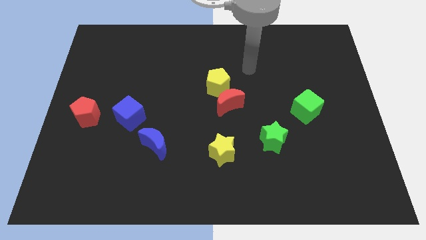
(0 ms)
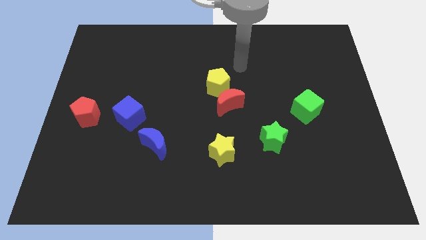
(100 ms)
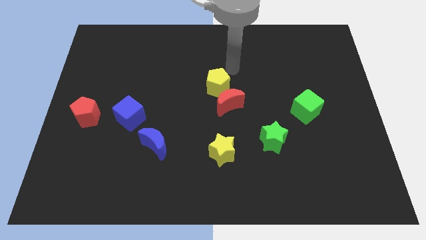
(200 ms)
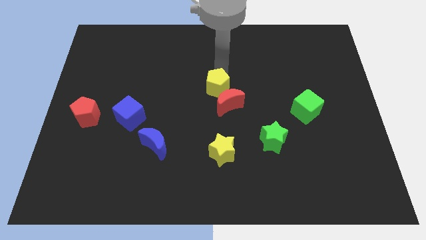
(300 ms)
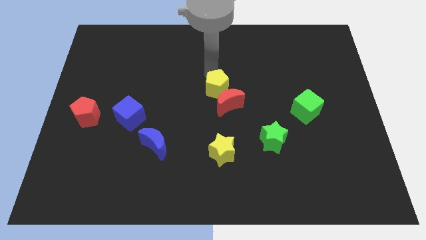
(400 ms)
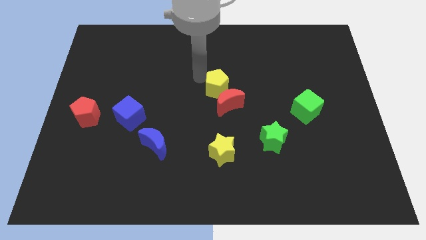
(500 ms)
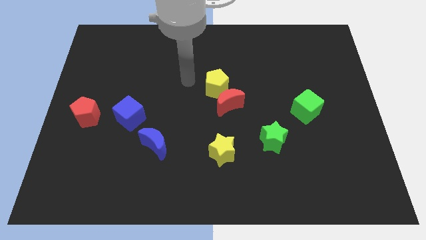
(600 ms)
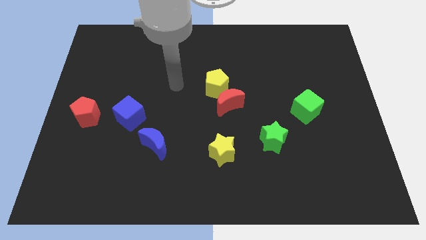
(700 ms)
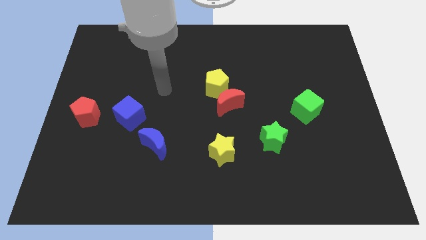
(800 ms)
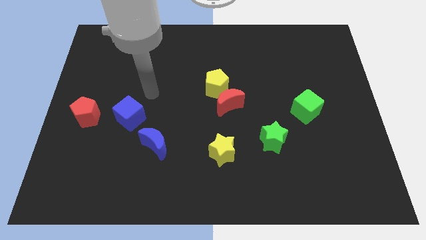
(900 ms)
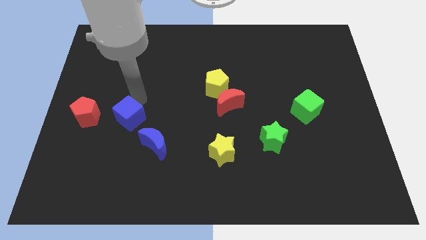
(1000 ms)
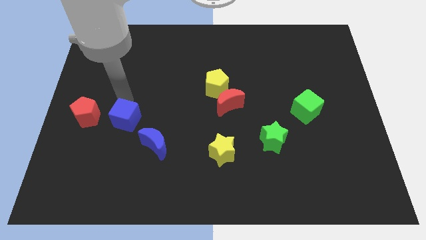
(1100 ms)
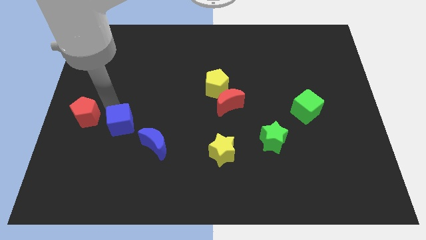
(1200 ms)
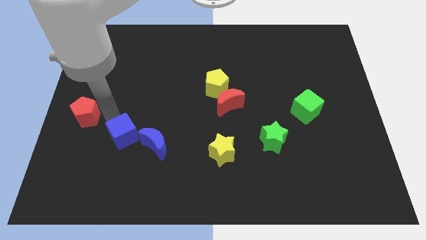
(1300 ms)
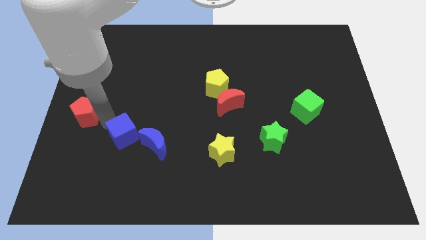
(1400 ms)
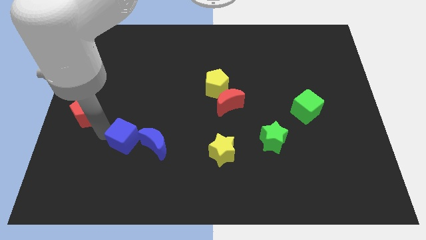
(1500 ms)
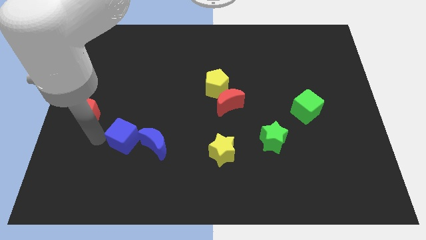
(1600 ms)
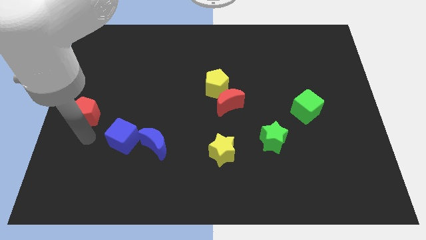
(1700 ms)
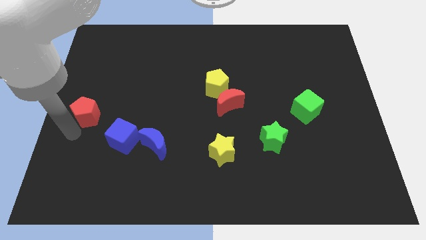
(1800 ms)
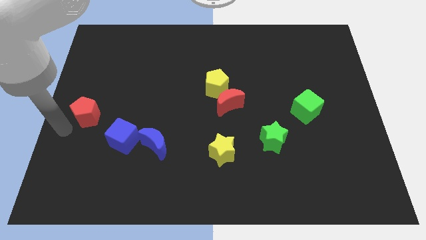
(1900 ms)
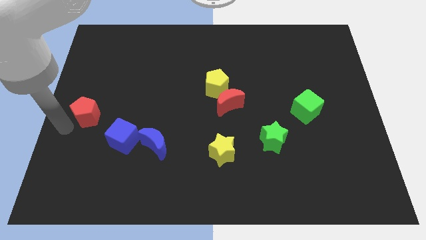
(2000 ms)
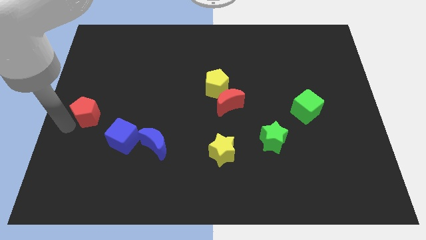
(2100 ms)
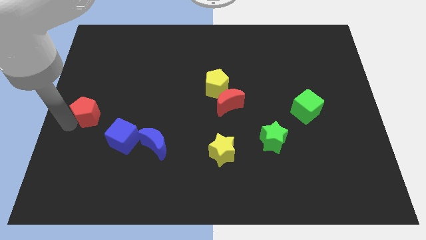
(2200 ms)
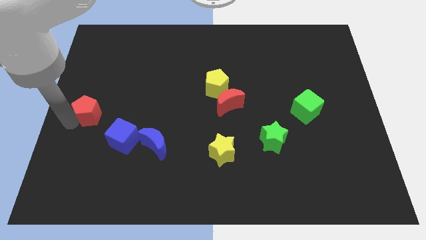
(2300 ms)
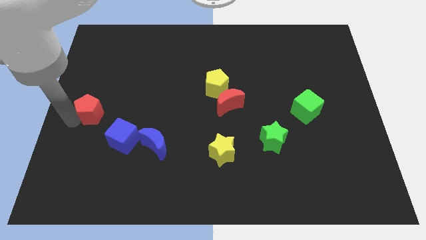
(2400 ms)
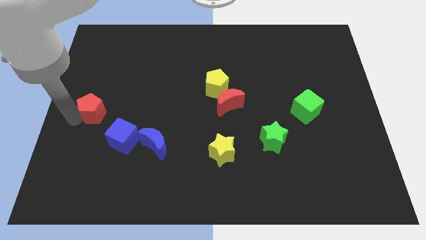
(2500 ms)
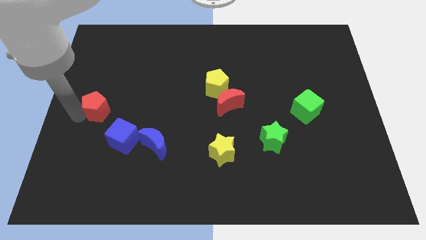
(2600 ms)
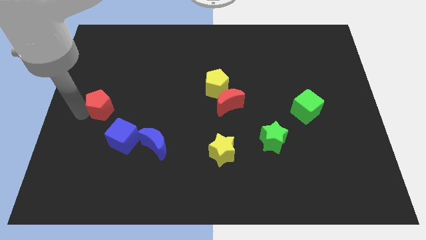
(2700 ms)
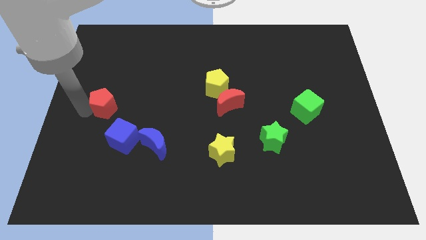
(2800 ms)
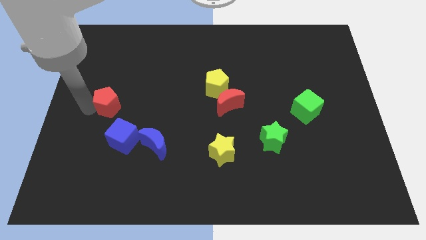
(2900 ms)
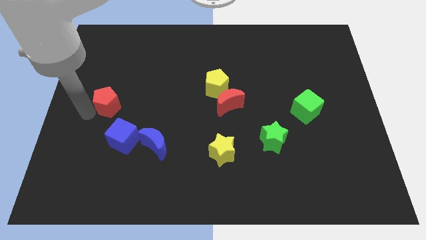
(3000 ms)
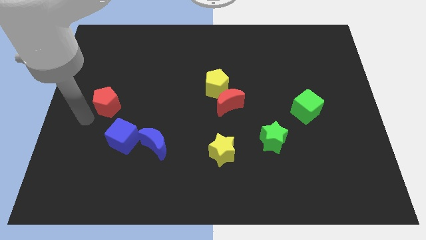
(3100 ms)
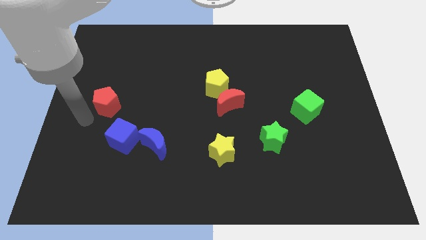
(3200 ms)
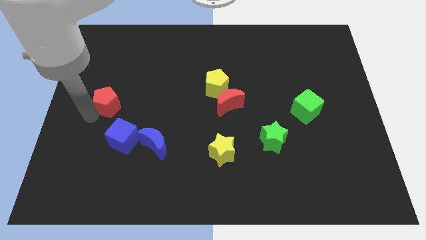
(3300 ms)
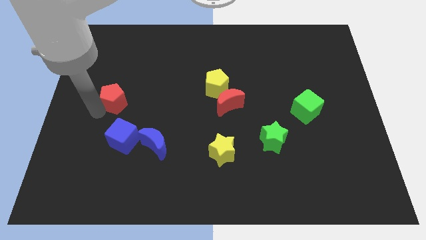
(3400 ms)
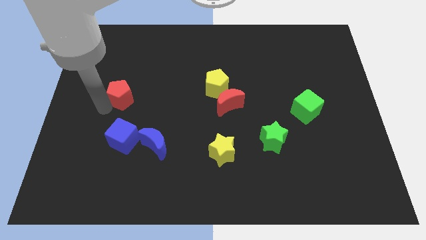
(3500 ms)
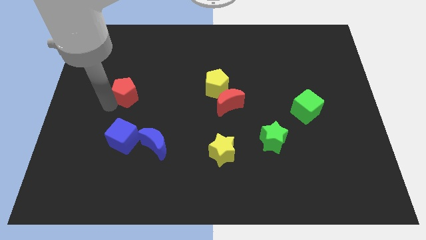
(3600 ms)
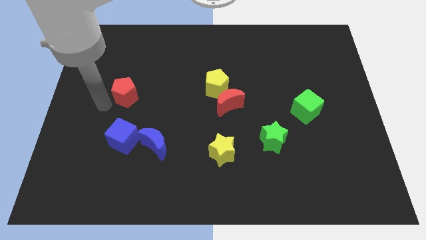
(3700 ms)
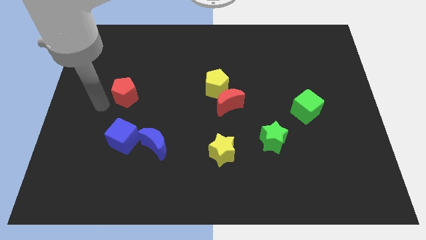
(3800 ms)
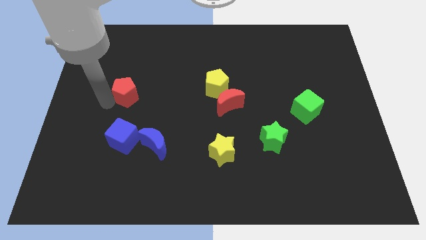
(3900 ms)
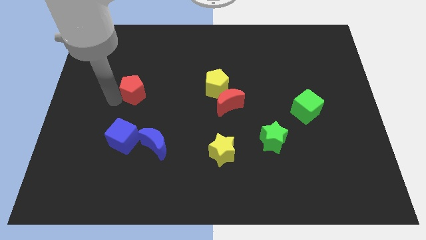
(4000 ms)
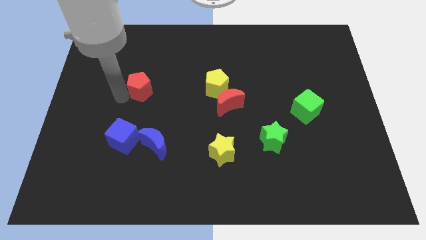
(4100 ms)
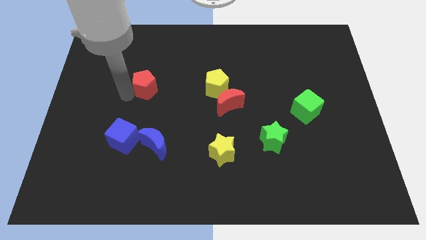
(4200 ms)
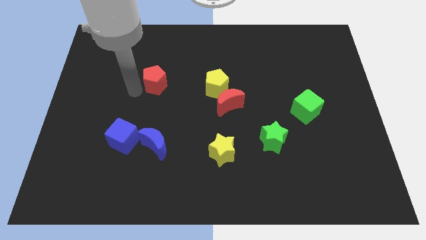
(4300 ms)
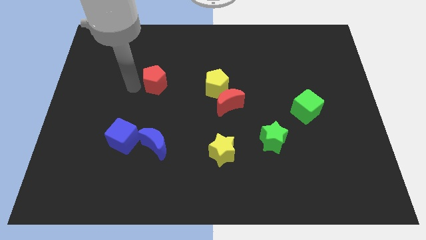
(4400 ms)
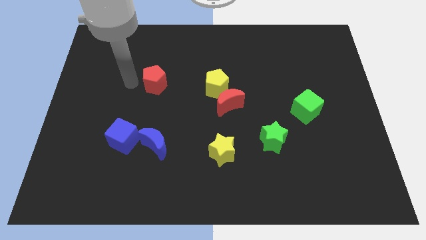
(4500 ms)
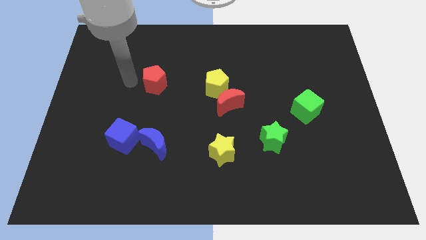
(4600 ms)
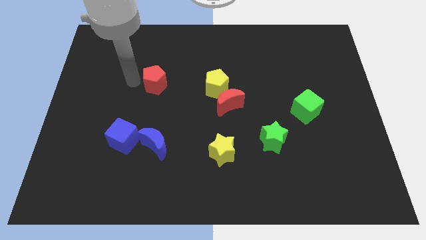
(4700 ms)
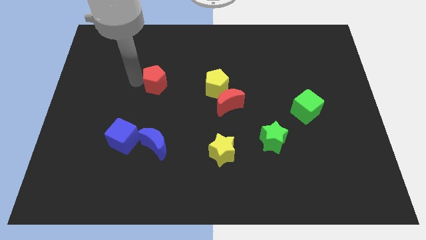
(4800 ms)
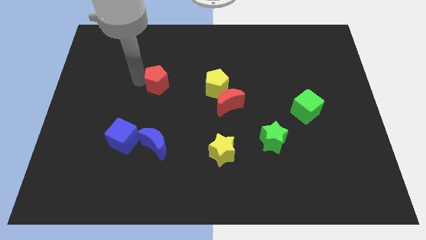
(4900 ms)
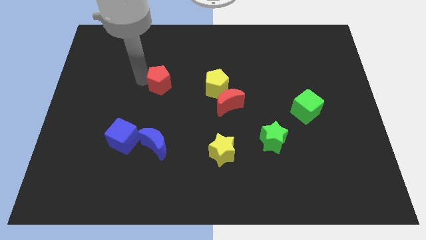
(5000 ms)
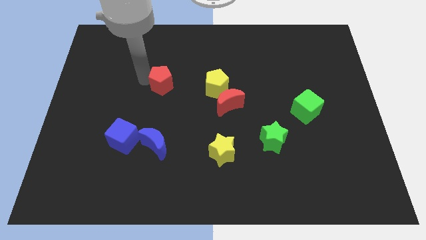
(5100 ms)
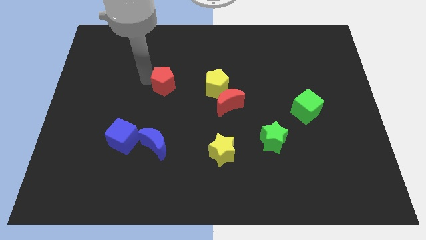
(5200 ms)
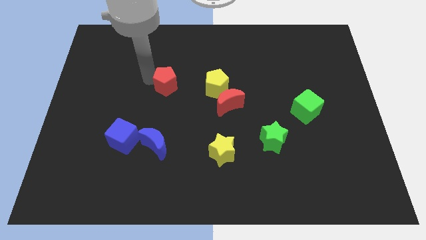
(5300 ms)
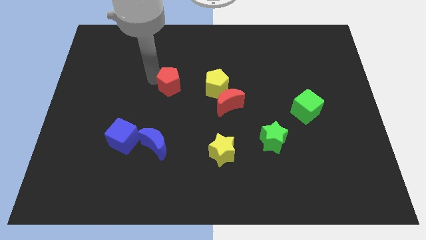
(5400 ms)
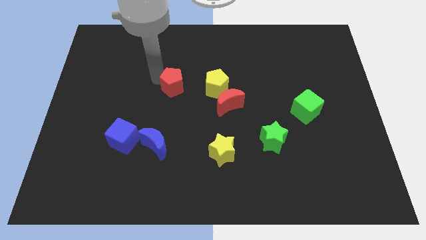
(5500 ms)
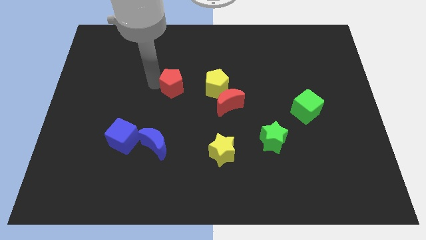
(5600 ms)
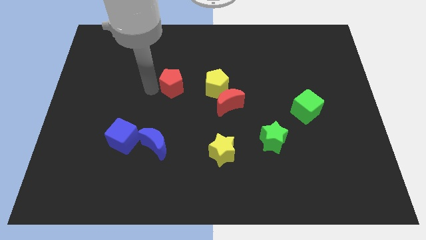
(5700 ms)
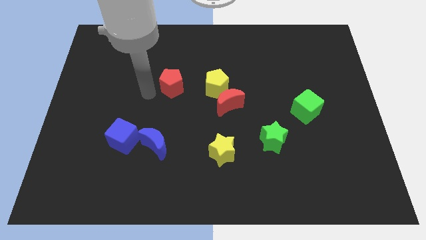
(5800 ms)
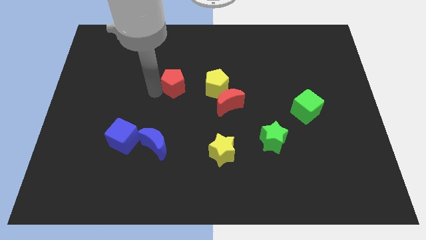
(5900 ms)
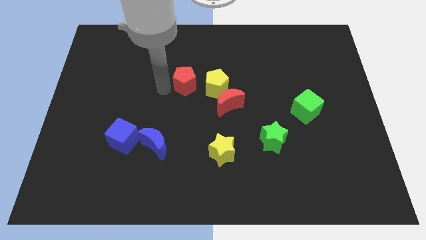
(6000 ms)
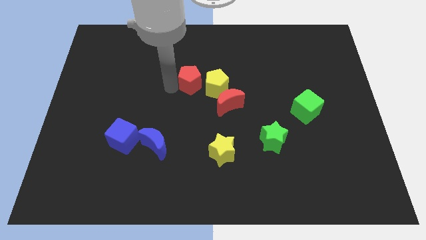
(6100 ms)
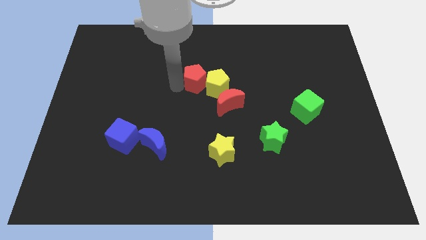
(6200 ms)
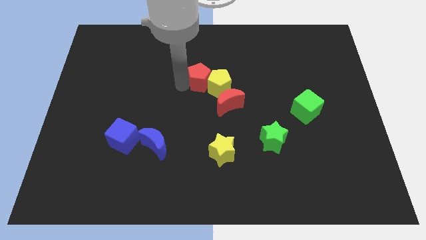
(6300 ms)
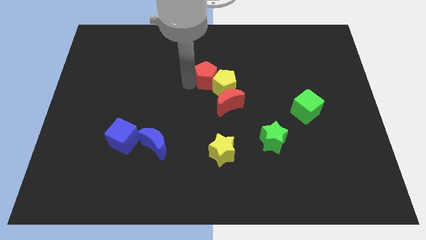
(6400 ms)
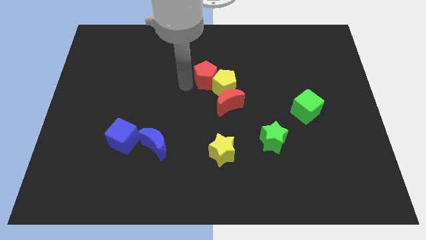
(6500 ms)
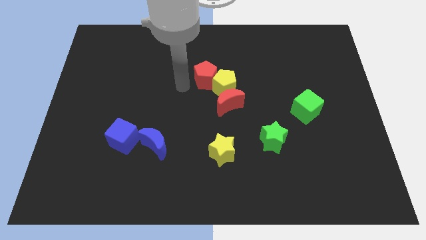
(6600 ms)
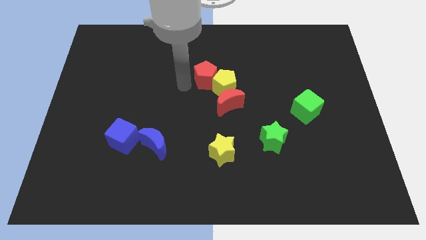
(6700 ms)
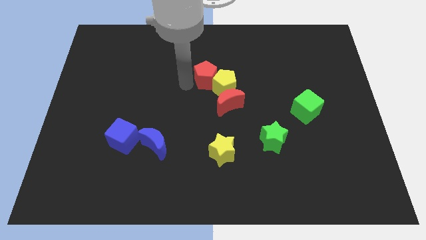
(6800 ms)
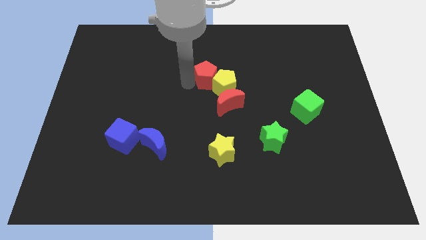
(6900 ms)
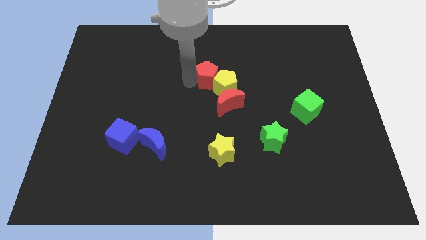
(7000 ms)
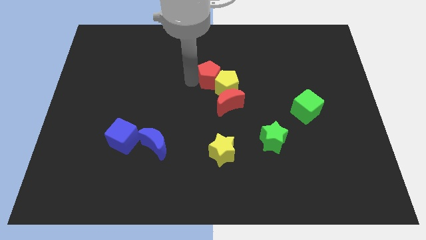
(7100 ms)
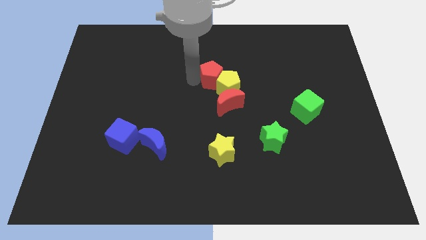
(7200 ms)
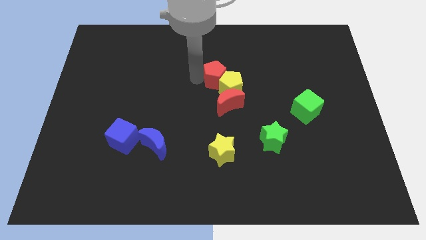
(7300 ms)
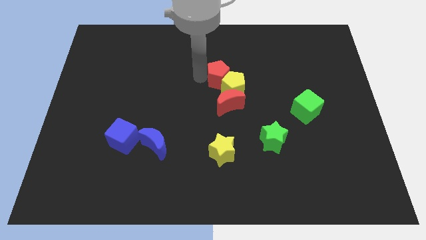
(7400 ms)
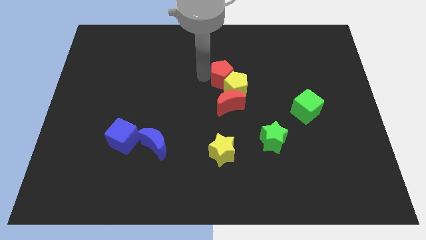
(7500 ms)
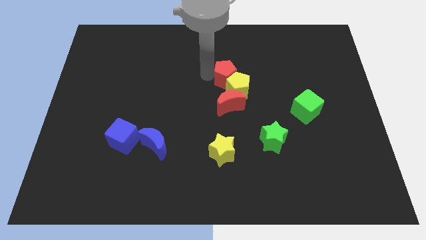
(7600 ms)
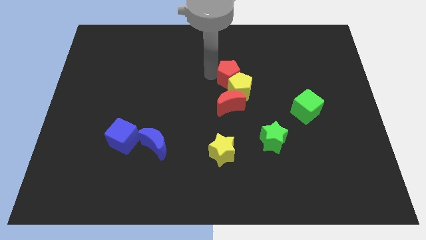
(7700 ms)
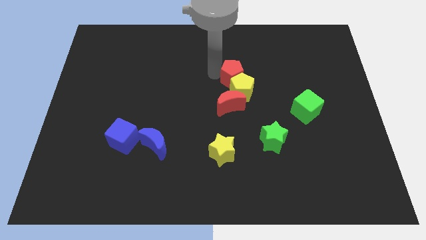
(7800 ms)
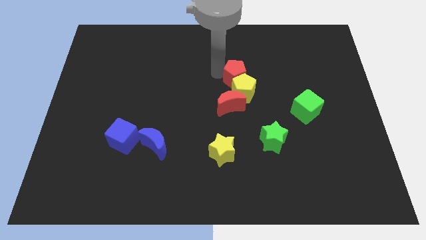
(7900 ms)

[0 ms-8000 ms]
move the red pentagon to the top right of the yellow pentagon
